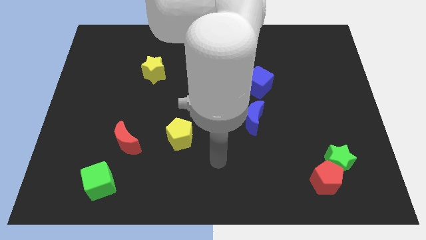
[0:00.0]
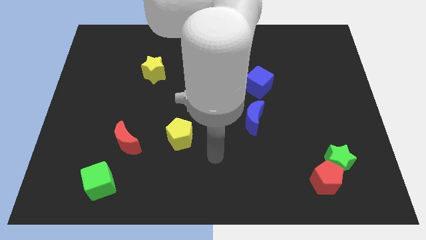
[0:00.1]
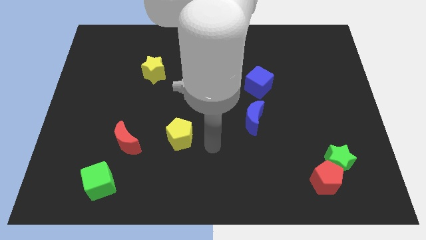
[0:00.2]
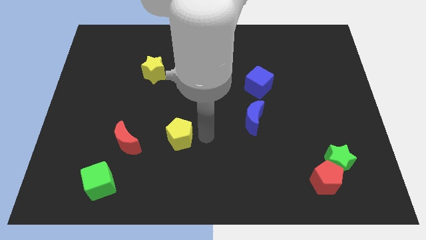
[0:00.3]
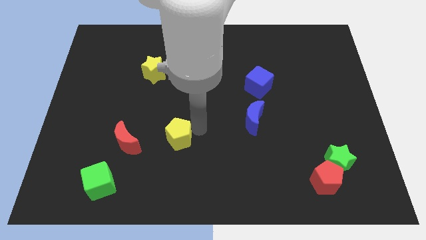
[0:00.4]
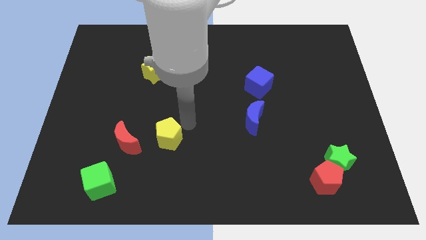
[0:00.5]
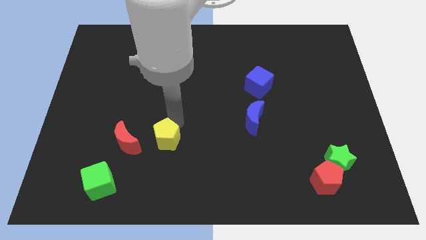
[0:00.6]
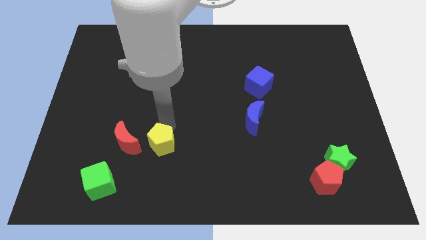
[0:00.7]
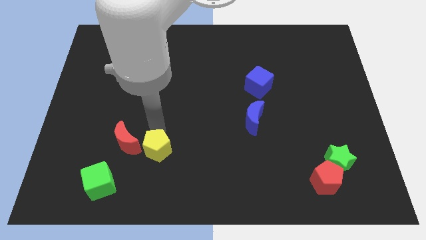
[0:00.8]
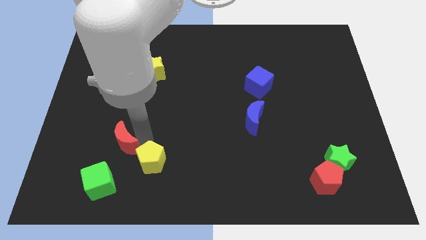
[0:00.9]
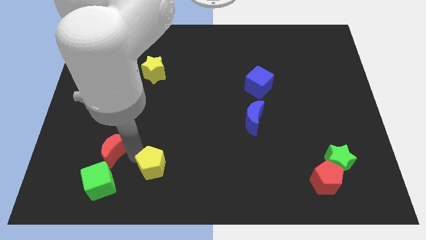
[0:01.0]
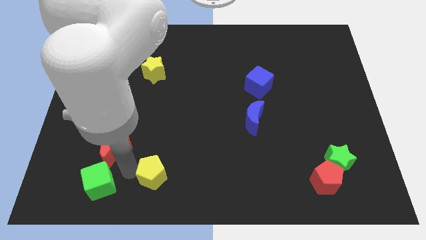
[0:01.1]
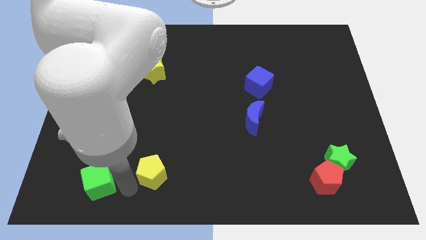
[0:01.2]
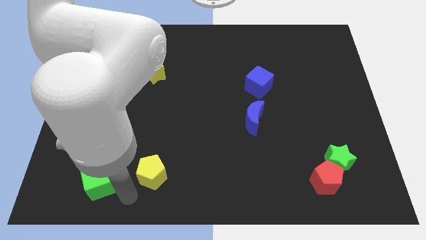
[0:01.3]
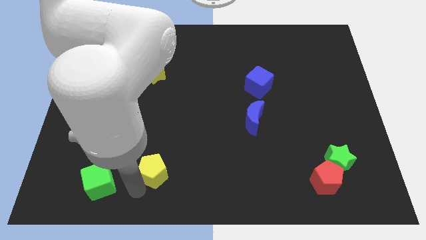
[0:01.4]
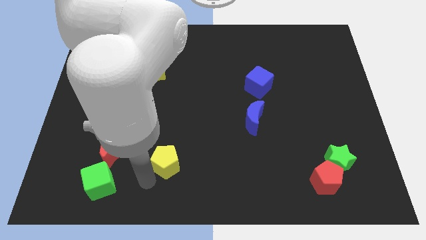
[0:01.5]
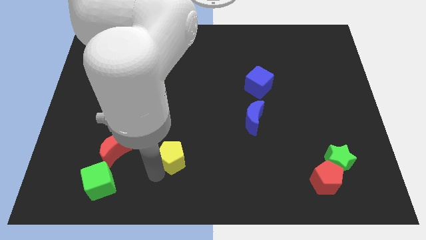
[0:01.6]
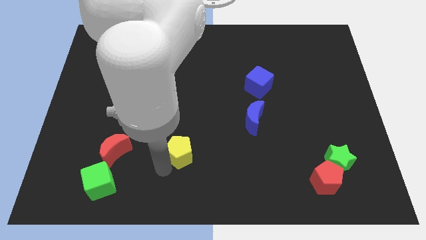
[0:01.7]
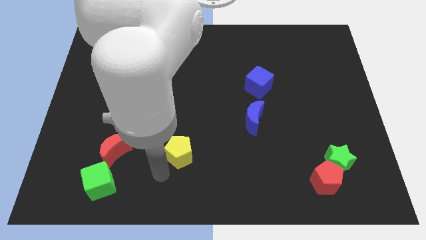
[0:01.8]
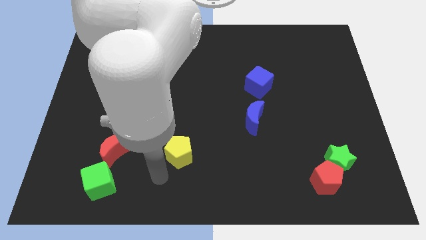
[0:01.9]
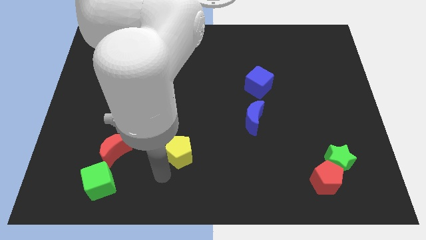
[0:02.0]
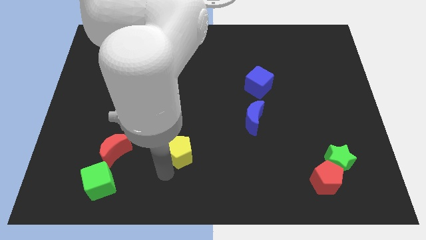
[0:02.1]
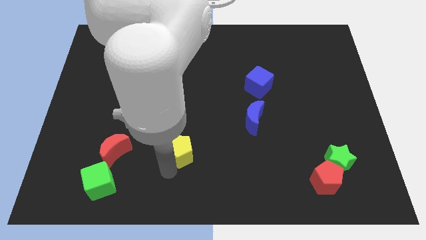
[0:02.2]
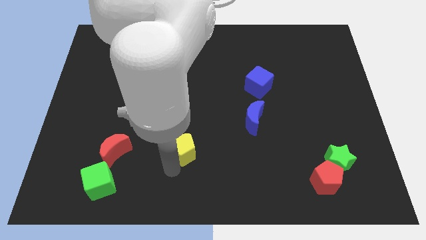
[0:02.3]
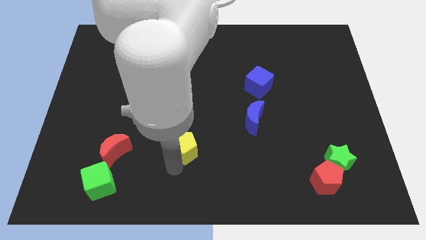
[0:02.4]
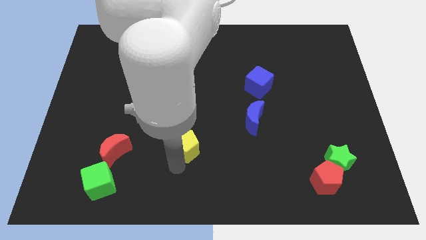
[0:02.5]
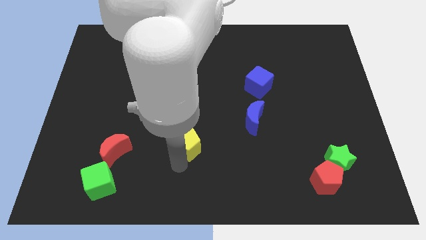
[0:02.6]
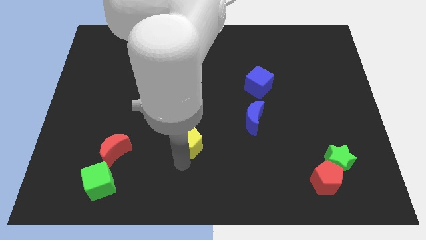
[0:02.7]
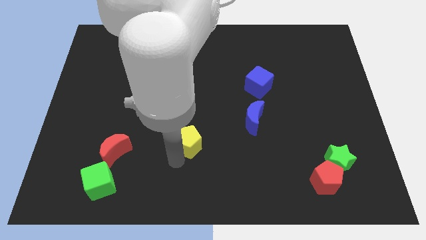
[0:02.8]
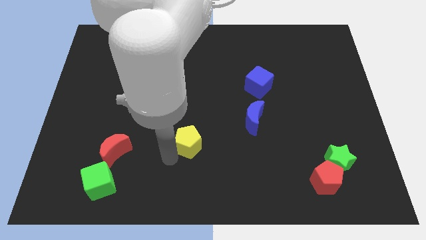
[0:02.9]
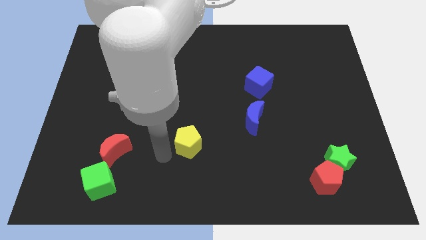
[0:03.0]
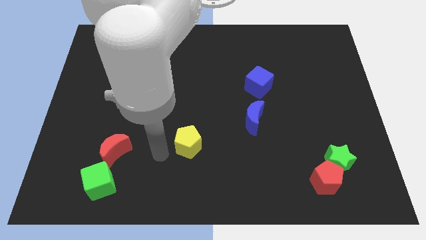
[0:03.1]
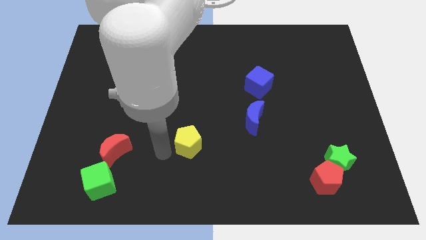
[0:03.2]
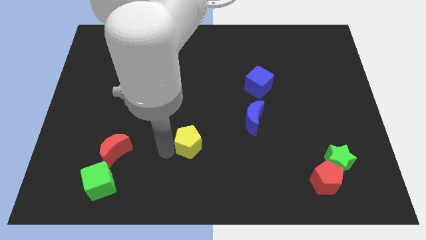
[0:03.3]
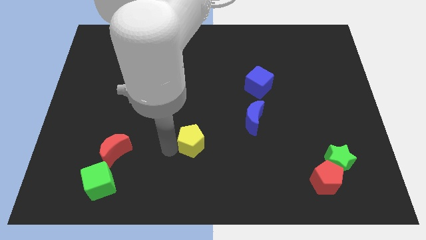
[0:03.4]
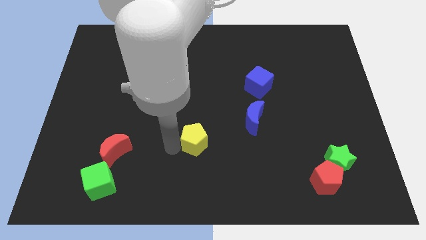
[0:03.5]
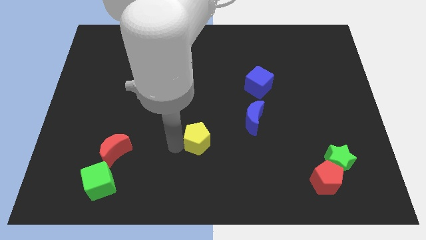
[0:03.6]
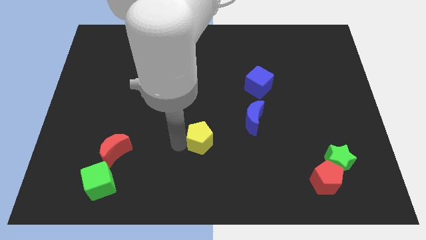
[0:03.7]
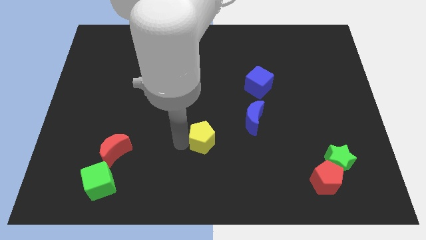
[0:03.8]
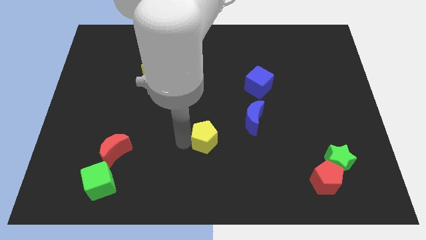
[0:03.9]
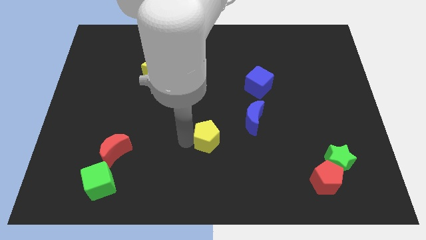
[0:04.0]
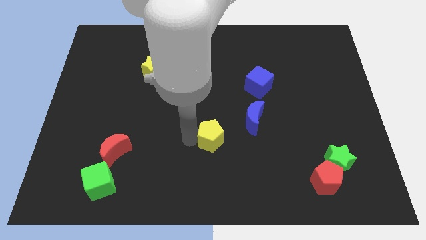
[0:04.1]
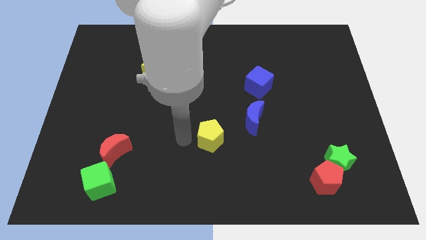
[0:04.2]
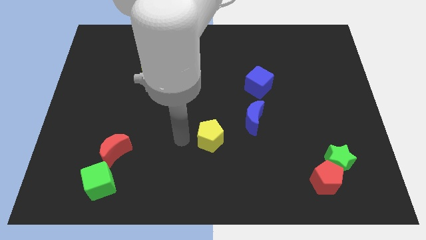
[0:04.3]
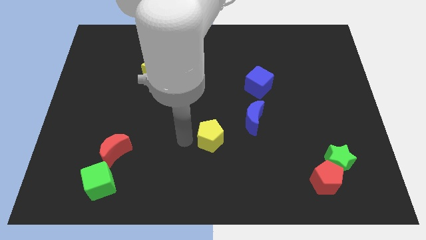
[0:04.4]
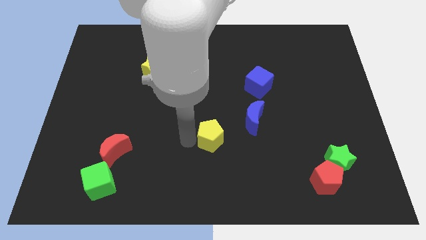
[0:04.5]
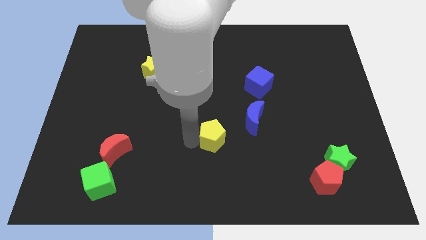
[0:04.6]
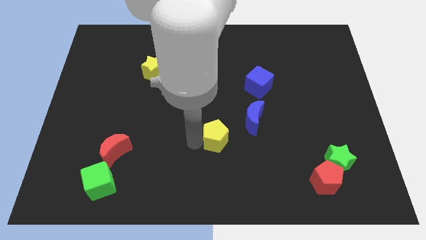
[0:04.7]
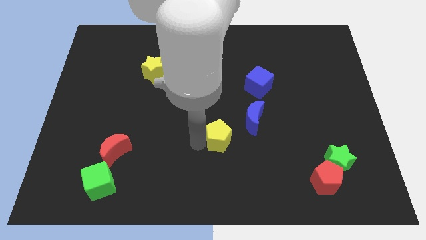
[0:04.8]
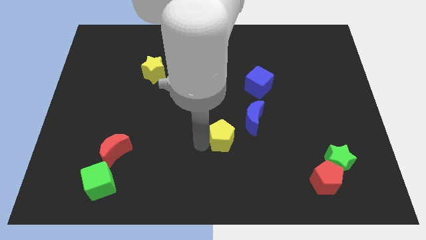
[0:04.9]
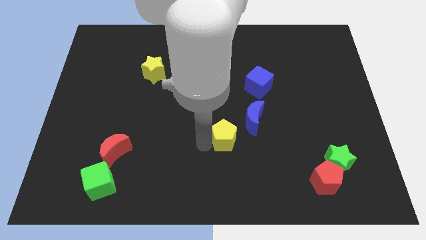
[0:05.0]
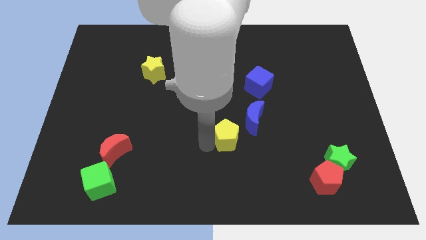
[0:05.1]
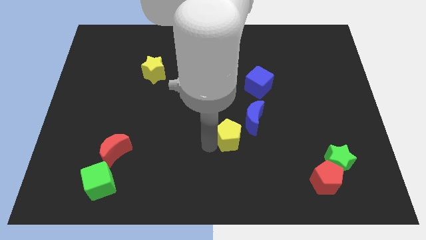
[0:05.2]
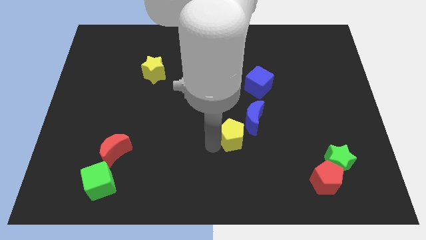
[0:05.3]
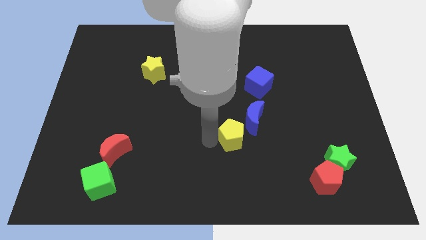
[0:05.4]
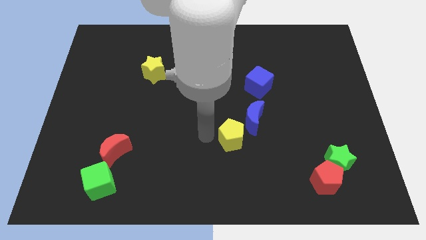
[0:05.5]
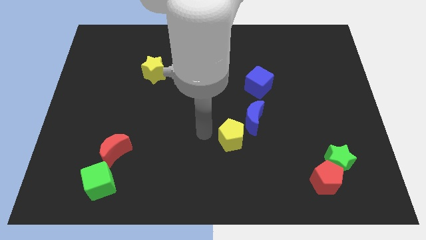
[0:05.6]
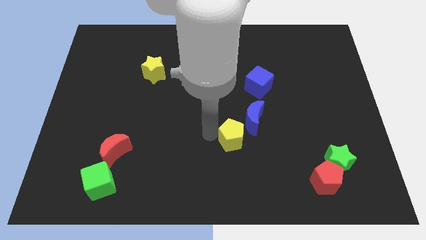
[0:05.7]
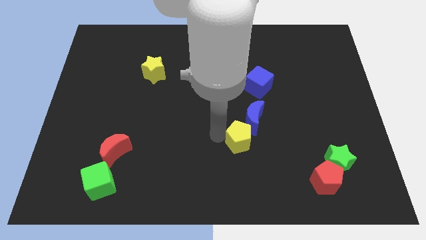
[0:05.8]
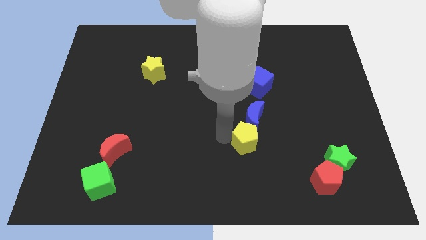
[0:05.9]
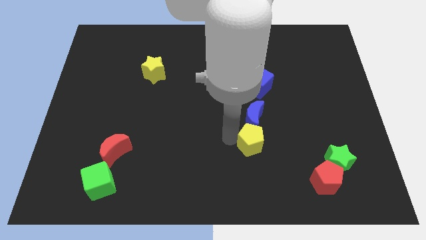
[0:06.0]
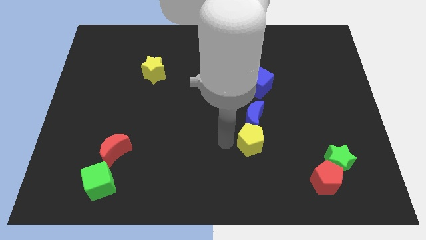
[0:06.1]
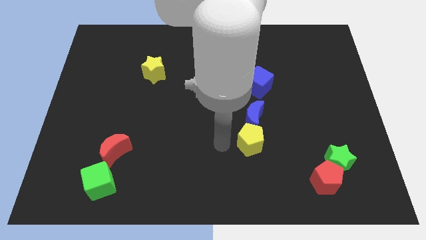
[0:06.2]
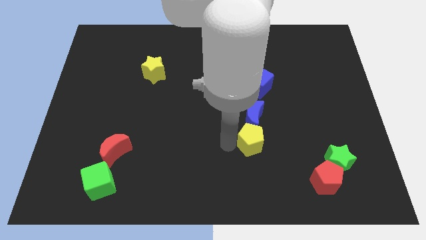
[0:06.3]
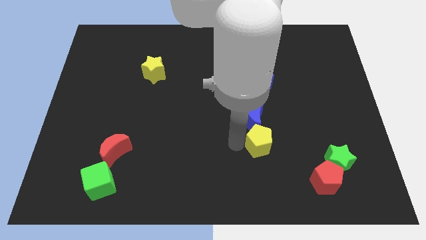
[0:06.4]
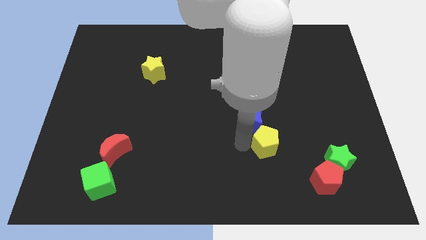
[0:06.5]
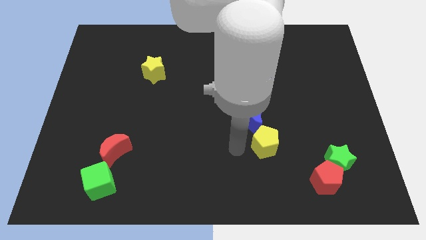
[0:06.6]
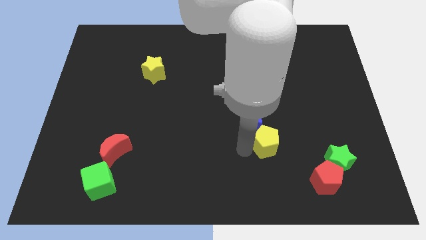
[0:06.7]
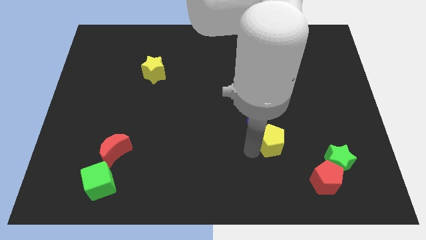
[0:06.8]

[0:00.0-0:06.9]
slide the yellow pentagon to the right

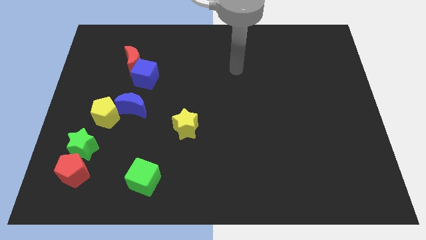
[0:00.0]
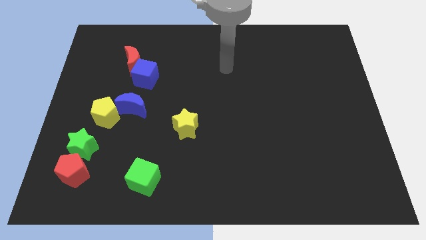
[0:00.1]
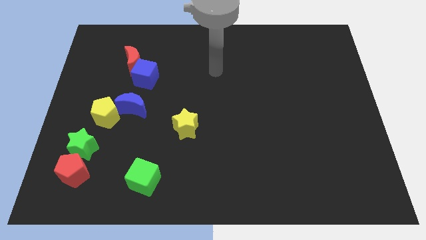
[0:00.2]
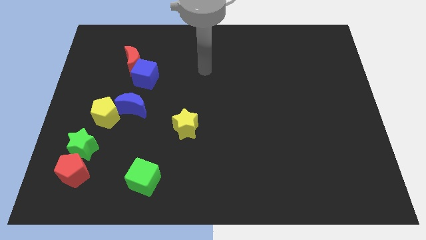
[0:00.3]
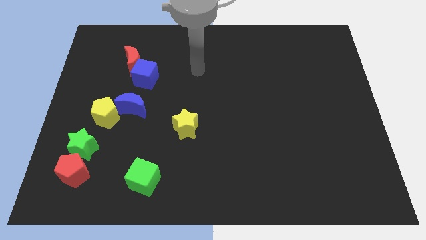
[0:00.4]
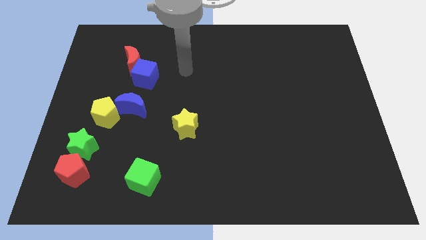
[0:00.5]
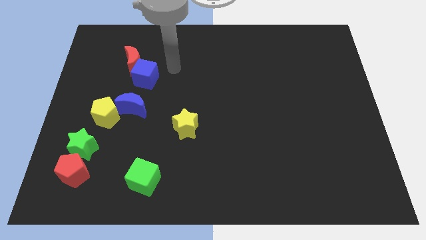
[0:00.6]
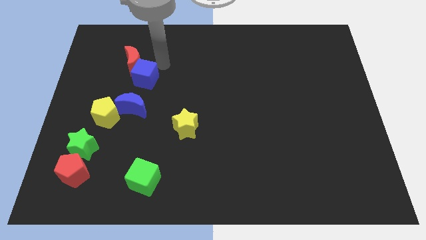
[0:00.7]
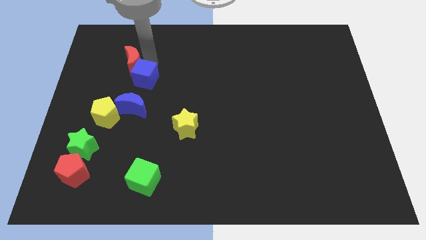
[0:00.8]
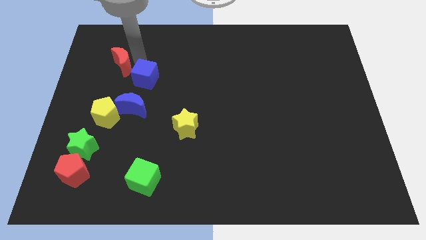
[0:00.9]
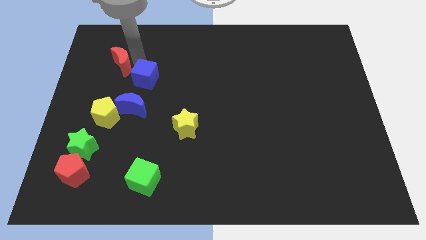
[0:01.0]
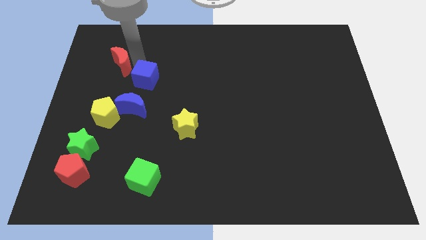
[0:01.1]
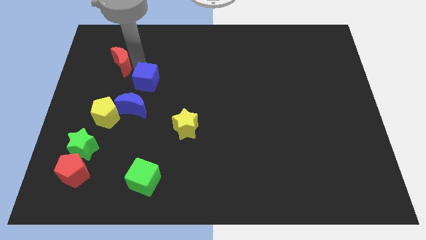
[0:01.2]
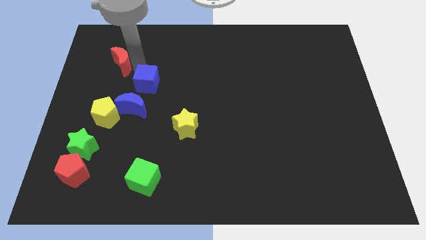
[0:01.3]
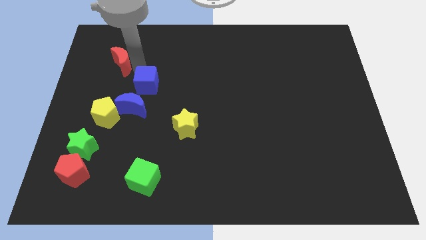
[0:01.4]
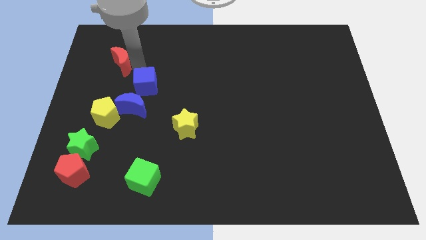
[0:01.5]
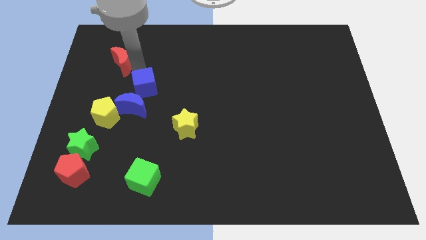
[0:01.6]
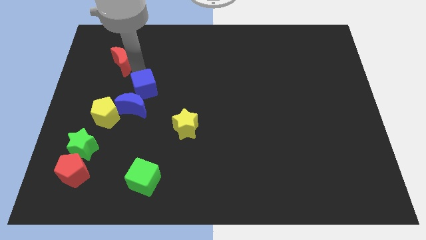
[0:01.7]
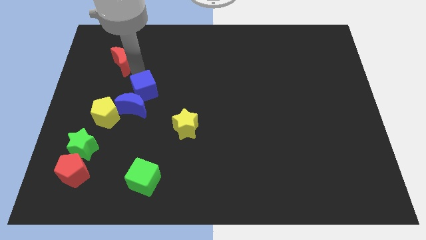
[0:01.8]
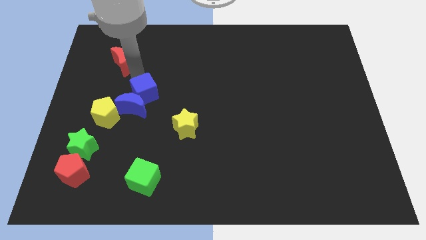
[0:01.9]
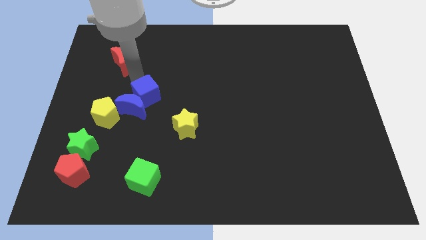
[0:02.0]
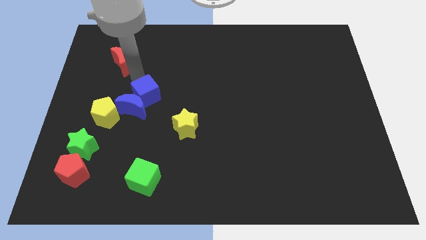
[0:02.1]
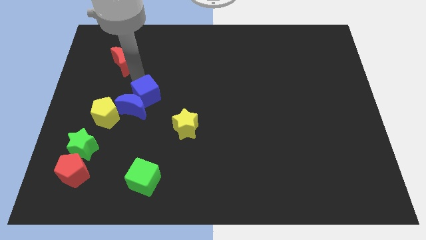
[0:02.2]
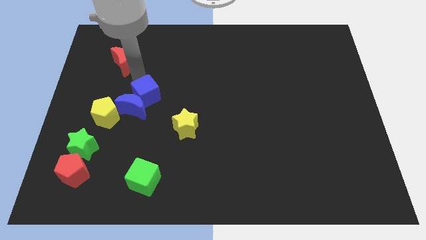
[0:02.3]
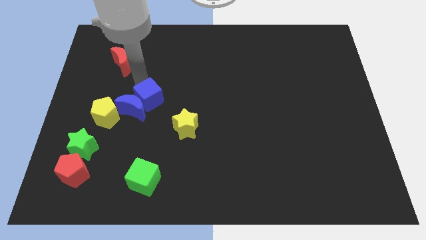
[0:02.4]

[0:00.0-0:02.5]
move the blue cube downwards a little bit
